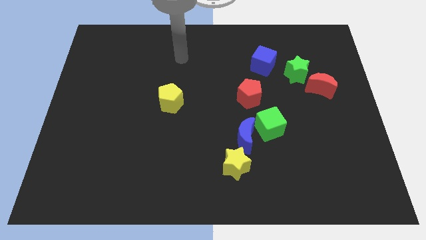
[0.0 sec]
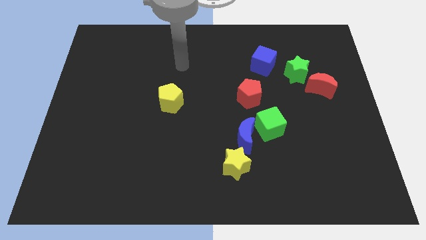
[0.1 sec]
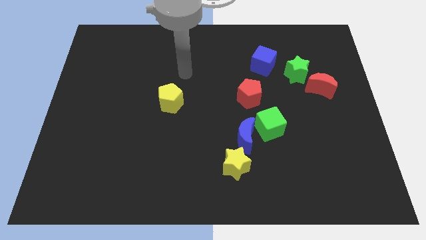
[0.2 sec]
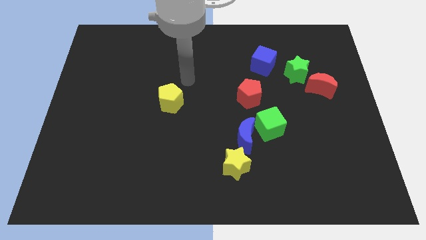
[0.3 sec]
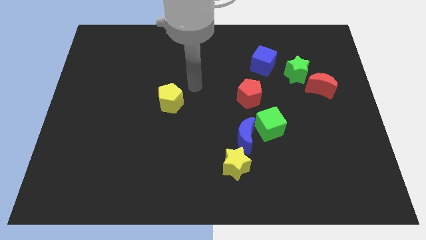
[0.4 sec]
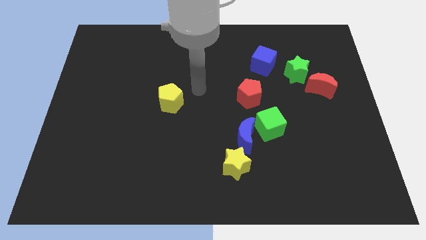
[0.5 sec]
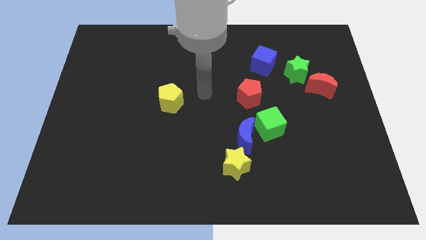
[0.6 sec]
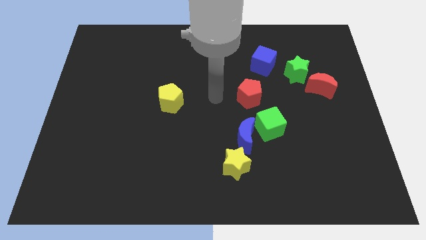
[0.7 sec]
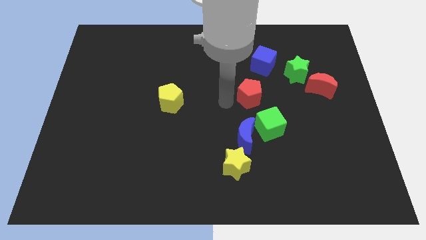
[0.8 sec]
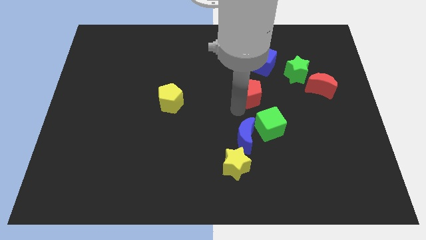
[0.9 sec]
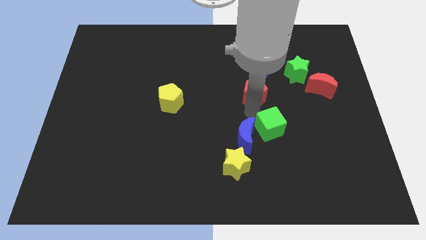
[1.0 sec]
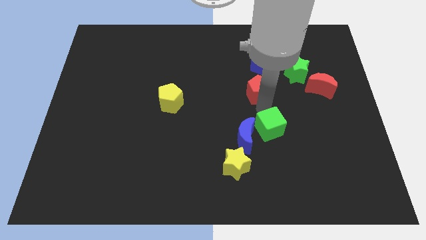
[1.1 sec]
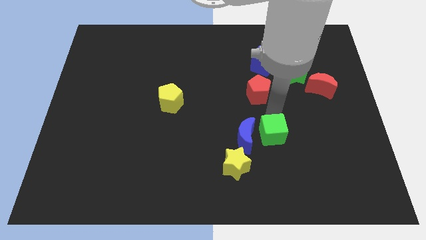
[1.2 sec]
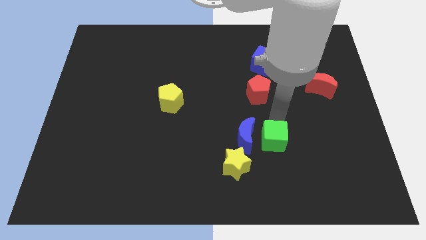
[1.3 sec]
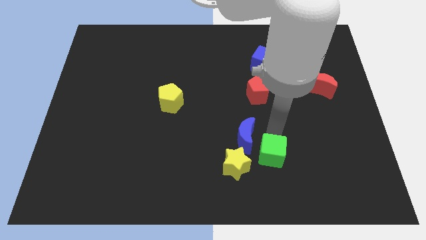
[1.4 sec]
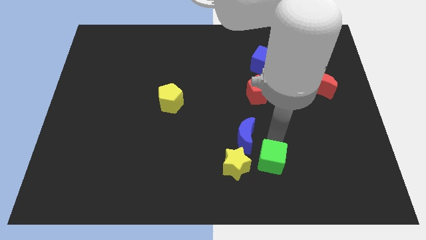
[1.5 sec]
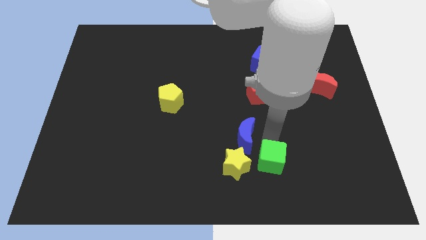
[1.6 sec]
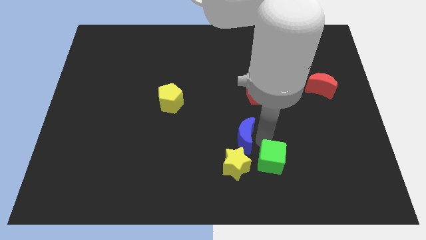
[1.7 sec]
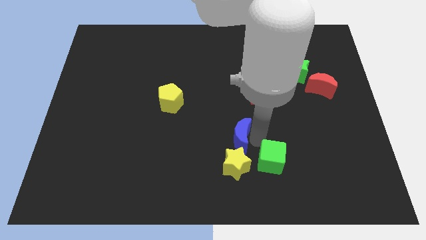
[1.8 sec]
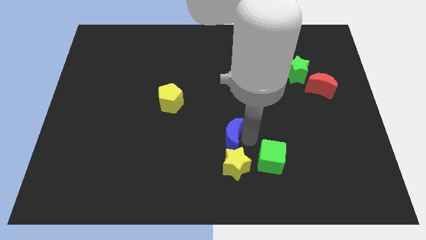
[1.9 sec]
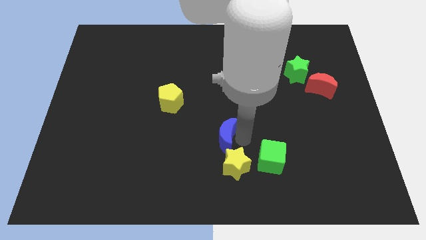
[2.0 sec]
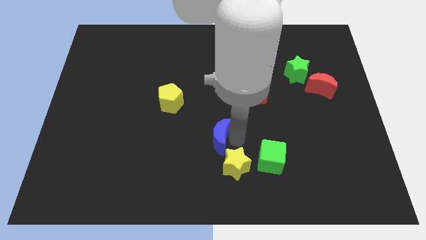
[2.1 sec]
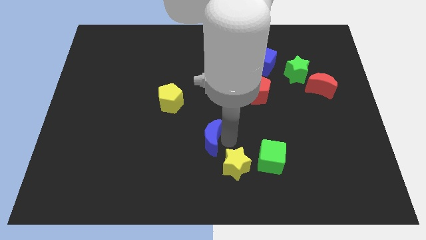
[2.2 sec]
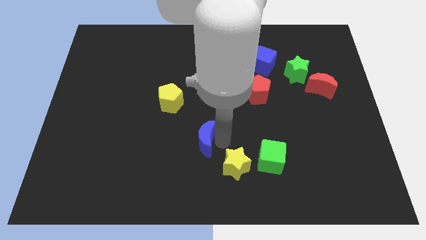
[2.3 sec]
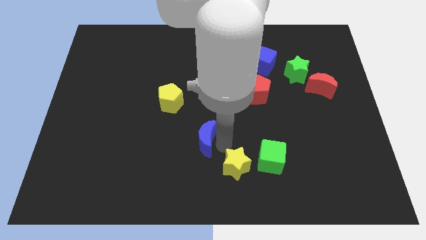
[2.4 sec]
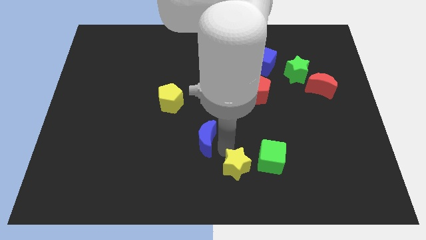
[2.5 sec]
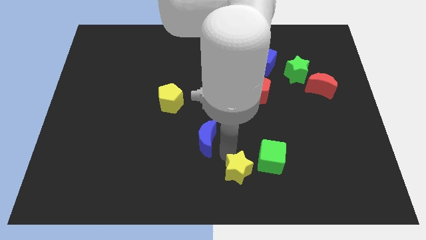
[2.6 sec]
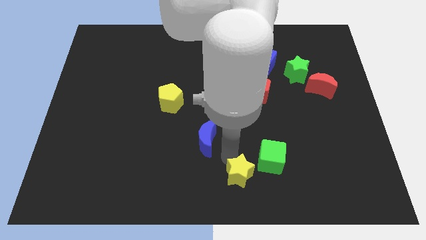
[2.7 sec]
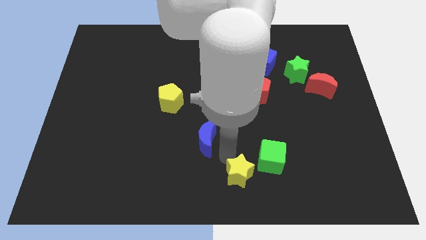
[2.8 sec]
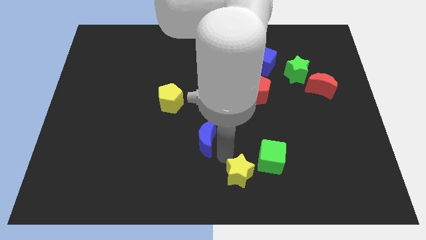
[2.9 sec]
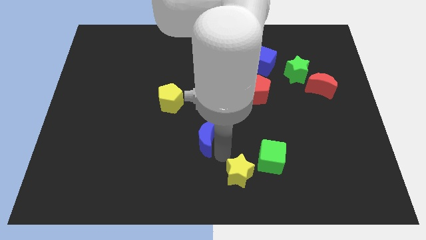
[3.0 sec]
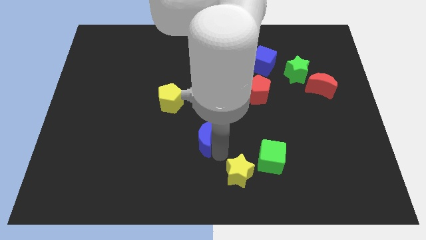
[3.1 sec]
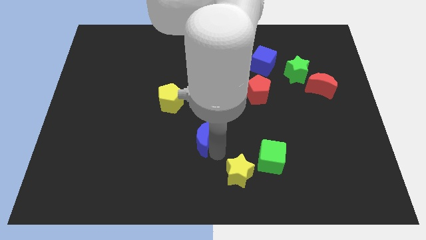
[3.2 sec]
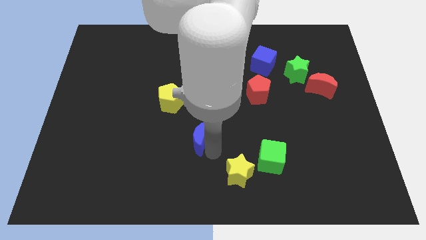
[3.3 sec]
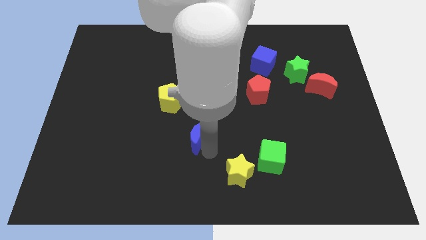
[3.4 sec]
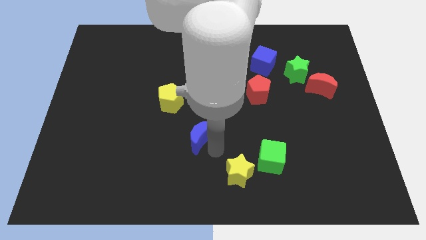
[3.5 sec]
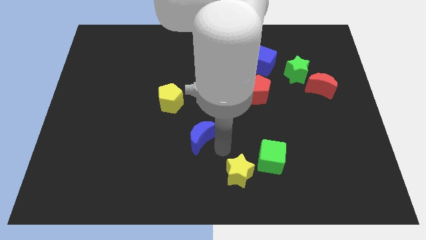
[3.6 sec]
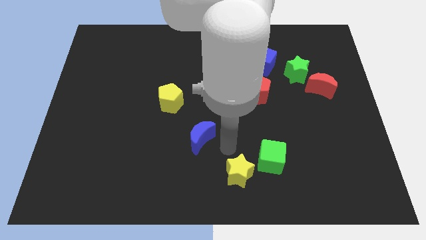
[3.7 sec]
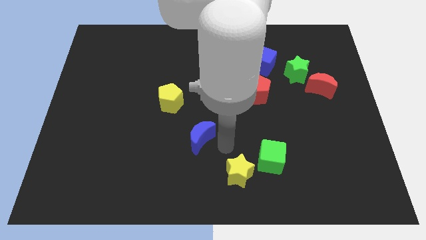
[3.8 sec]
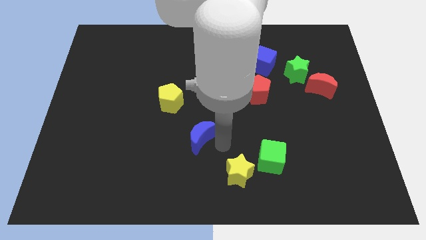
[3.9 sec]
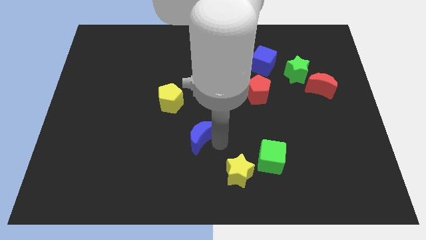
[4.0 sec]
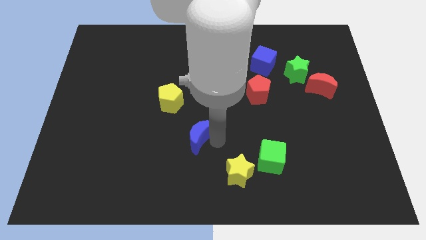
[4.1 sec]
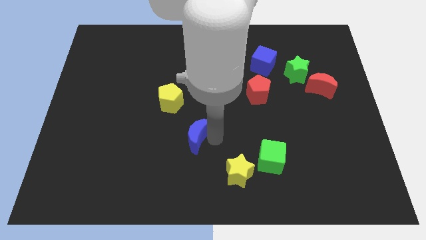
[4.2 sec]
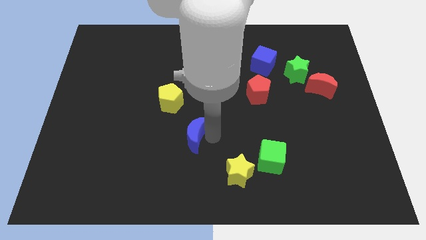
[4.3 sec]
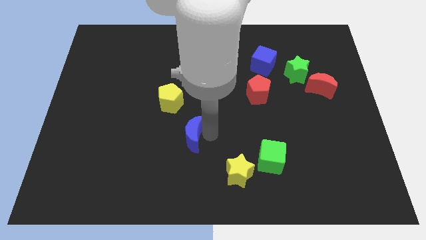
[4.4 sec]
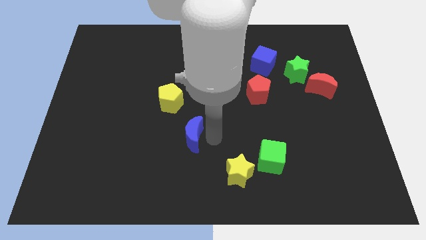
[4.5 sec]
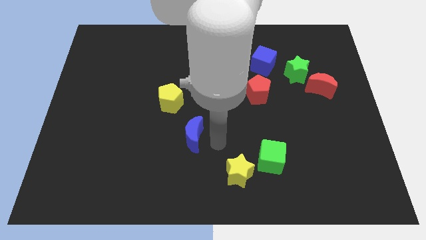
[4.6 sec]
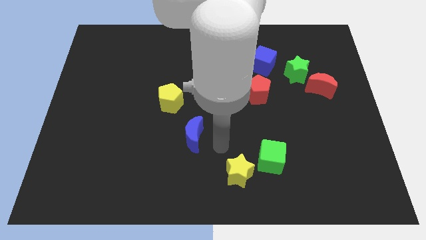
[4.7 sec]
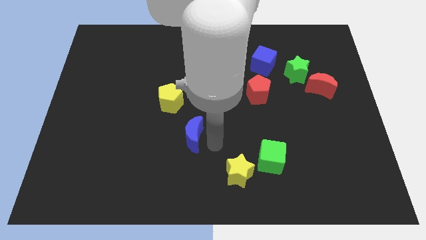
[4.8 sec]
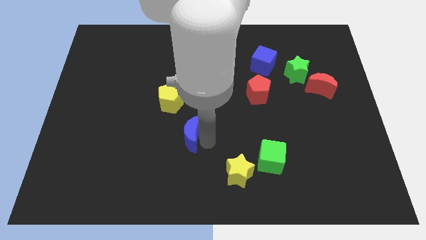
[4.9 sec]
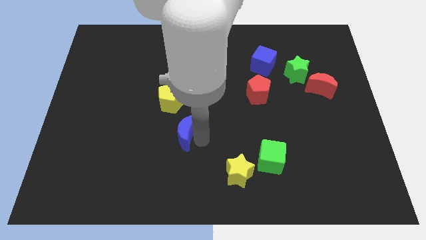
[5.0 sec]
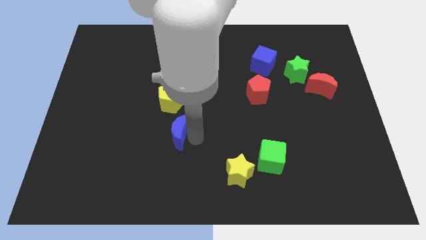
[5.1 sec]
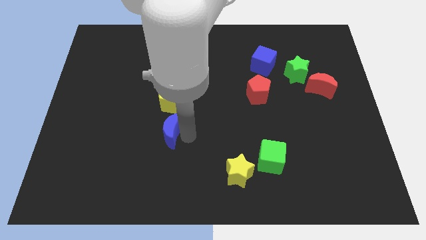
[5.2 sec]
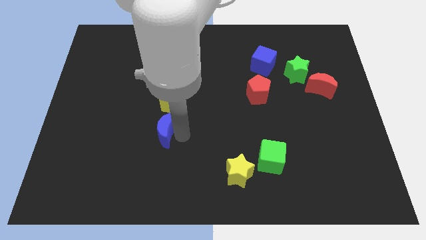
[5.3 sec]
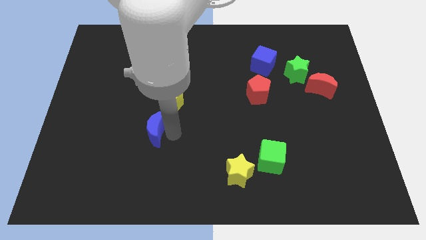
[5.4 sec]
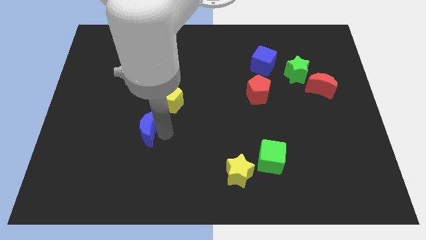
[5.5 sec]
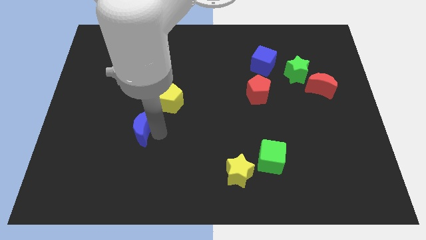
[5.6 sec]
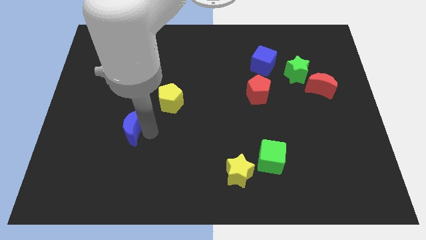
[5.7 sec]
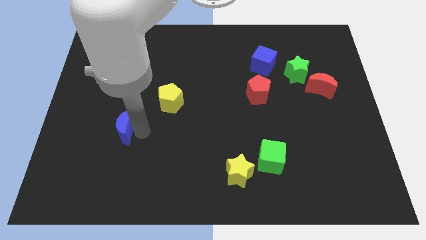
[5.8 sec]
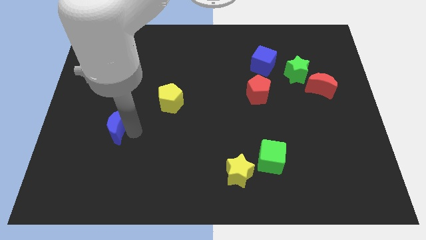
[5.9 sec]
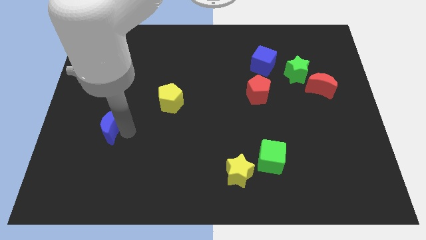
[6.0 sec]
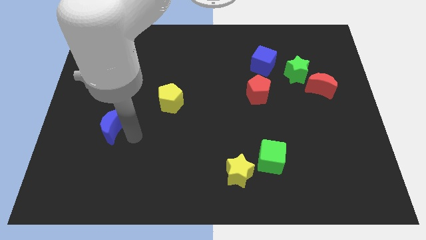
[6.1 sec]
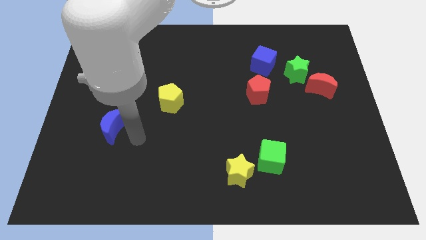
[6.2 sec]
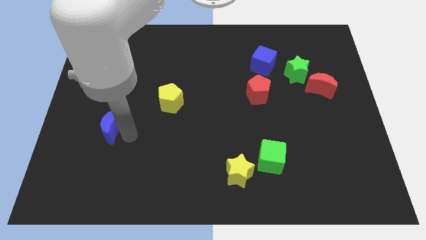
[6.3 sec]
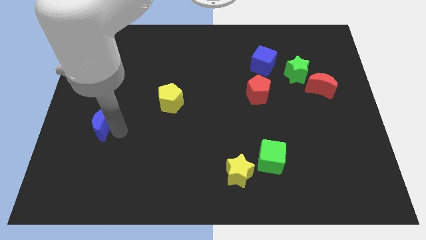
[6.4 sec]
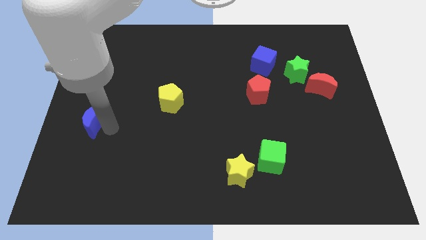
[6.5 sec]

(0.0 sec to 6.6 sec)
put the blue moon to the left side of the board
